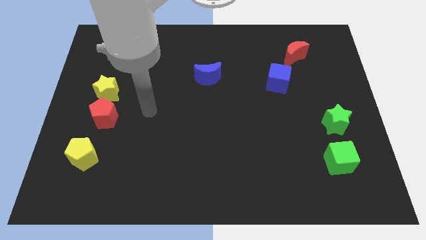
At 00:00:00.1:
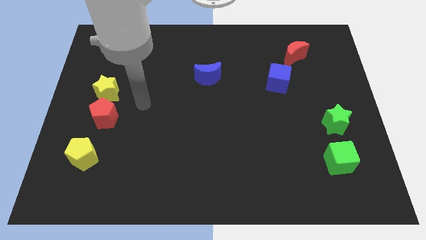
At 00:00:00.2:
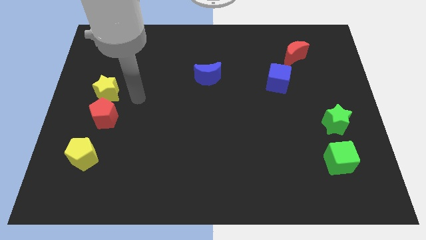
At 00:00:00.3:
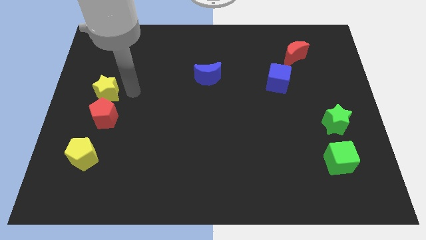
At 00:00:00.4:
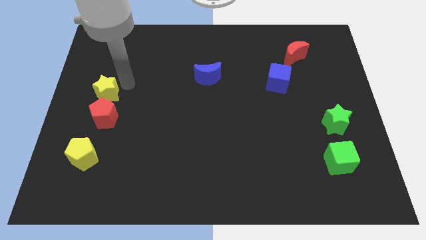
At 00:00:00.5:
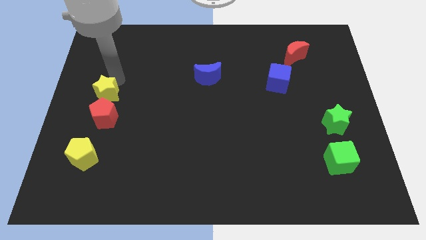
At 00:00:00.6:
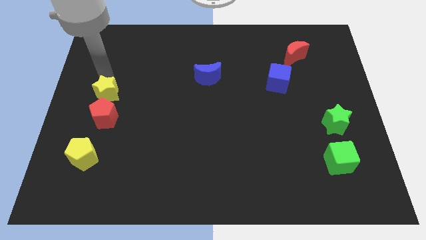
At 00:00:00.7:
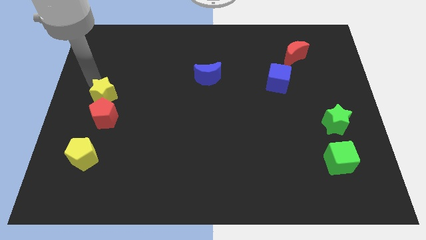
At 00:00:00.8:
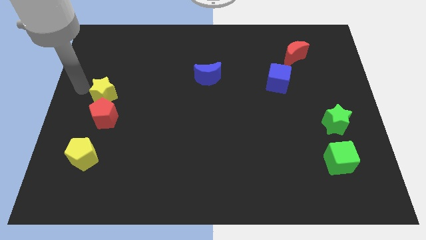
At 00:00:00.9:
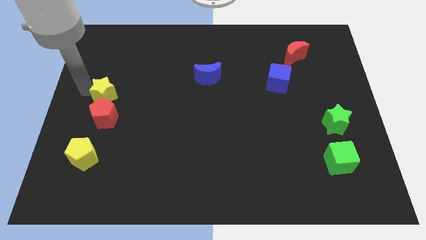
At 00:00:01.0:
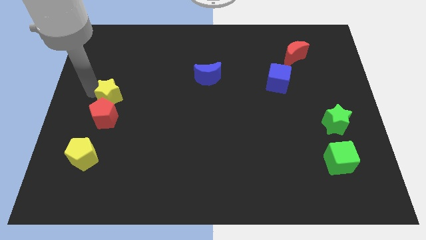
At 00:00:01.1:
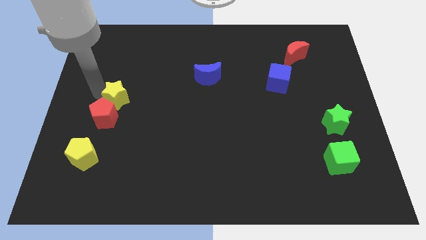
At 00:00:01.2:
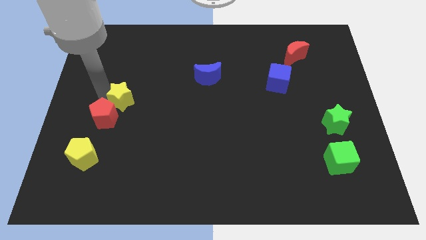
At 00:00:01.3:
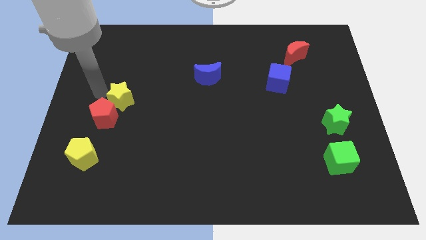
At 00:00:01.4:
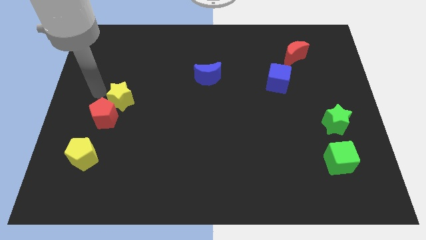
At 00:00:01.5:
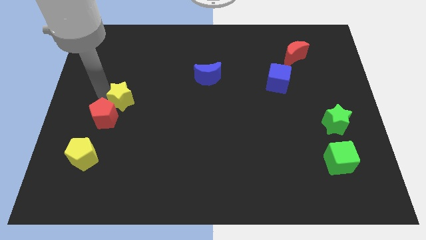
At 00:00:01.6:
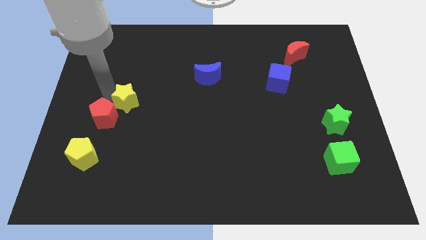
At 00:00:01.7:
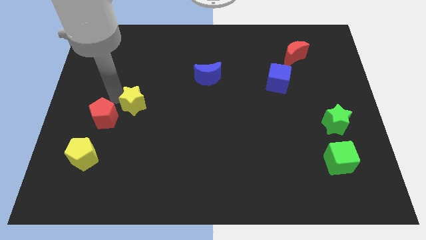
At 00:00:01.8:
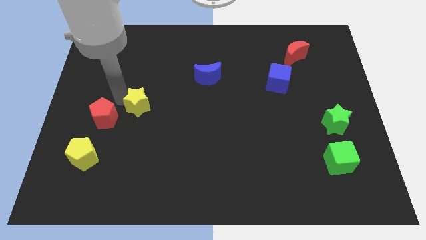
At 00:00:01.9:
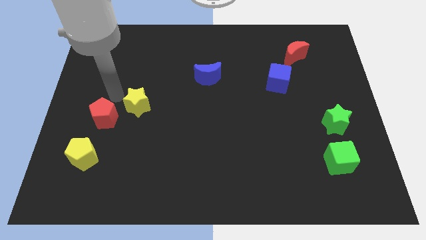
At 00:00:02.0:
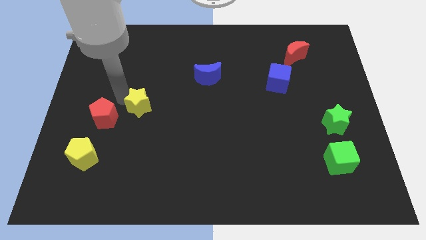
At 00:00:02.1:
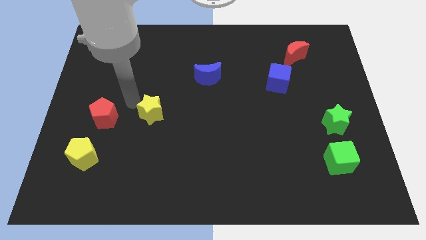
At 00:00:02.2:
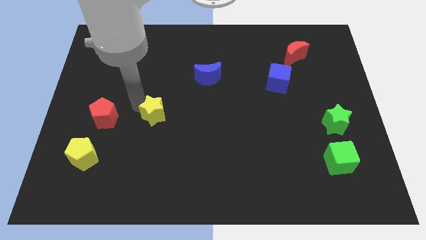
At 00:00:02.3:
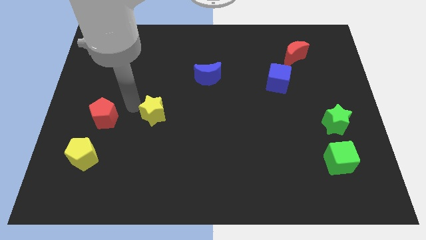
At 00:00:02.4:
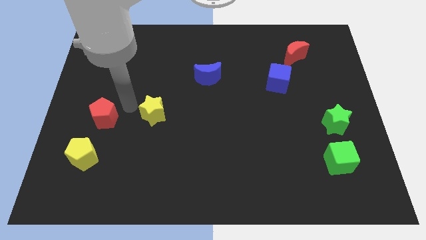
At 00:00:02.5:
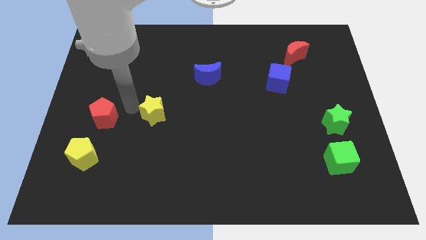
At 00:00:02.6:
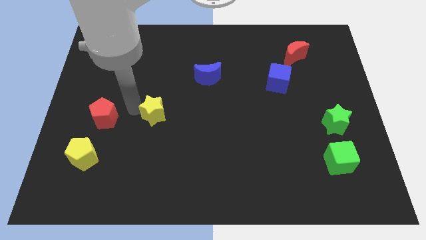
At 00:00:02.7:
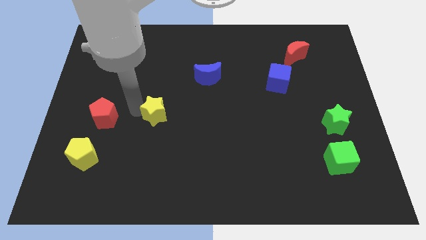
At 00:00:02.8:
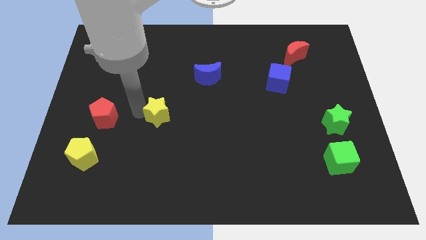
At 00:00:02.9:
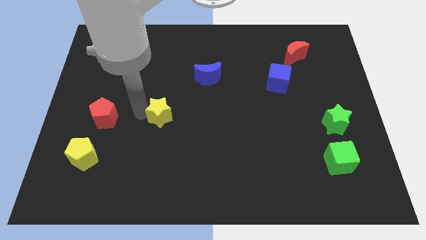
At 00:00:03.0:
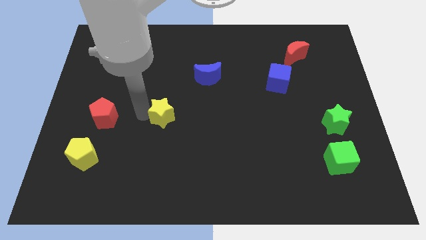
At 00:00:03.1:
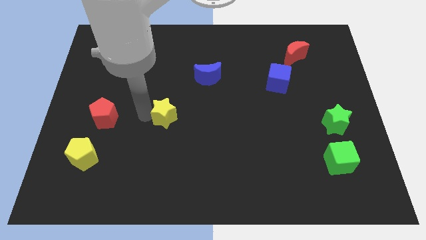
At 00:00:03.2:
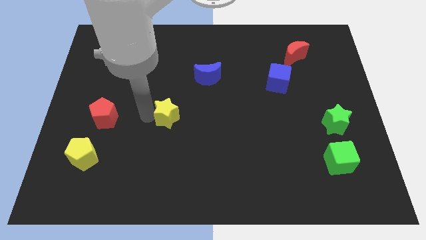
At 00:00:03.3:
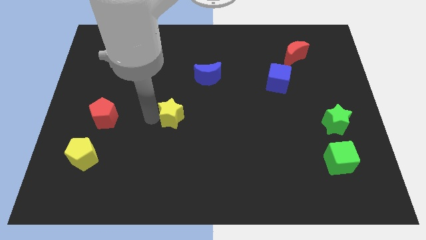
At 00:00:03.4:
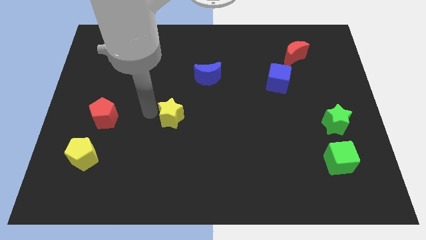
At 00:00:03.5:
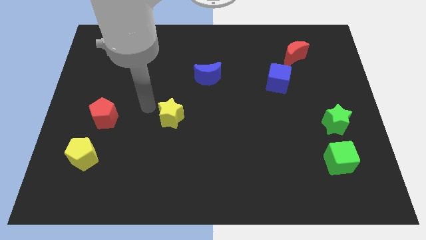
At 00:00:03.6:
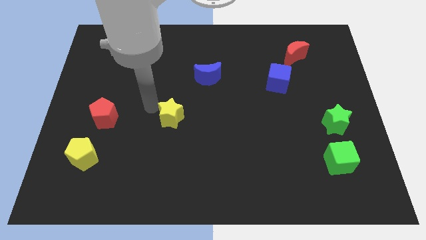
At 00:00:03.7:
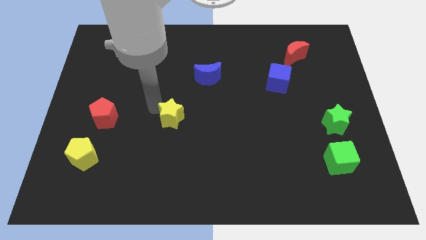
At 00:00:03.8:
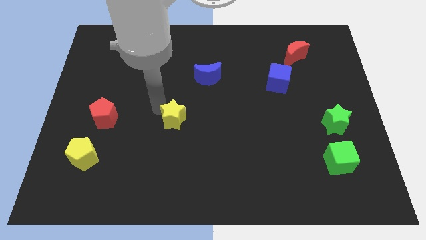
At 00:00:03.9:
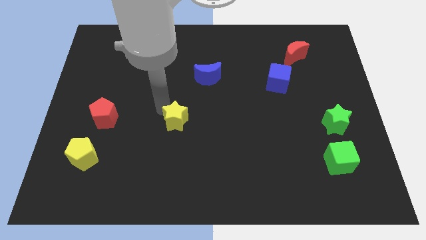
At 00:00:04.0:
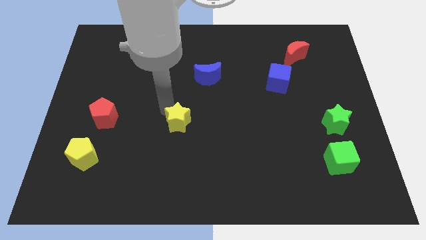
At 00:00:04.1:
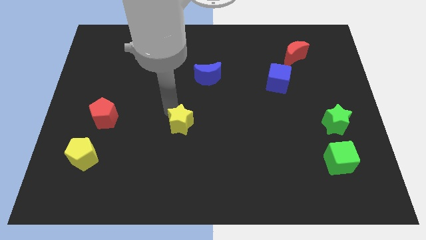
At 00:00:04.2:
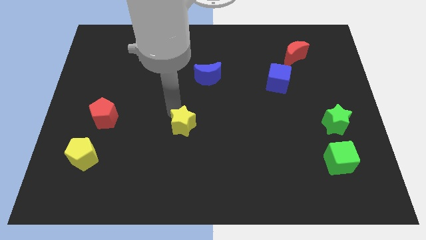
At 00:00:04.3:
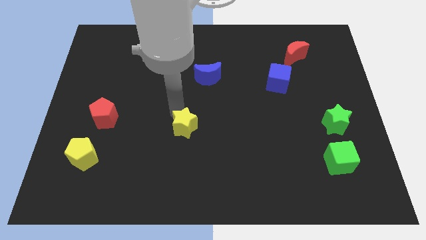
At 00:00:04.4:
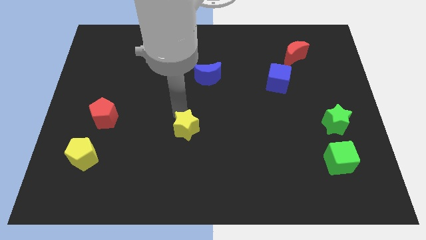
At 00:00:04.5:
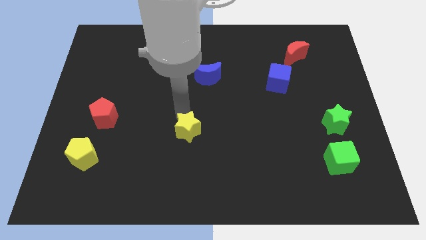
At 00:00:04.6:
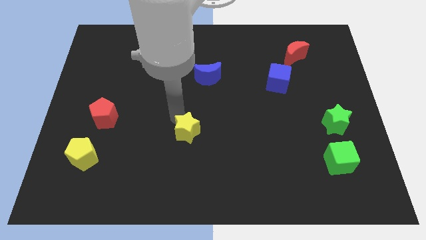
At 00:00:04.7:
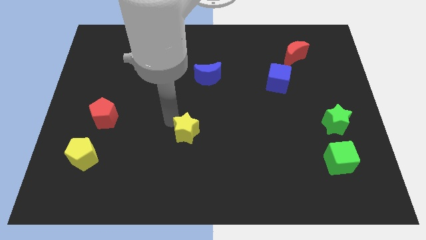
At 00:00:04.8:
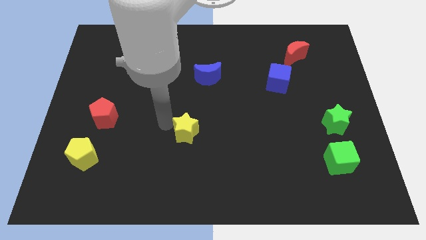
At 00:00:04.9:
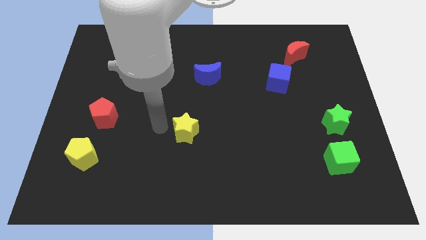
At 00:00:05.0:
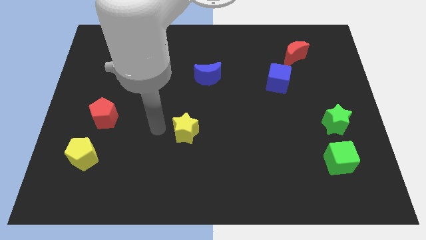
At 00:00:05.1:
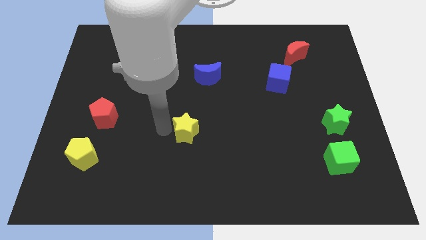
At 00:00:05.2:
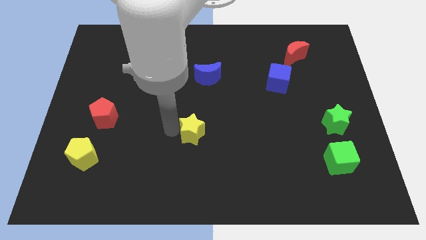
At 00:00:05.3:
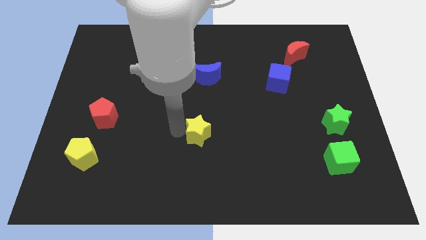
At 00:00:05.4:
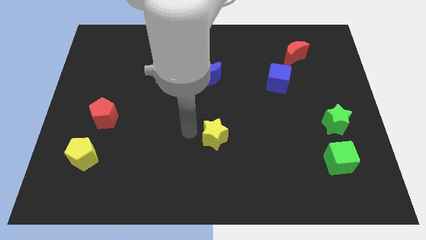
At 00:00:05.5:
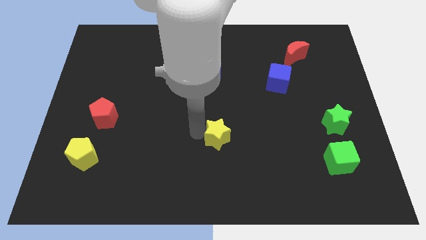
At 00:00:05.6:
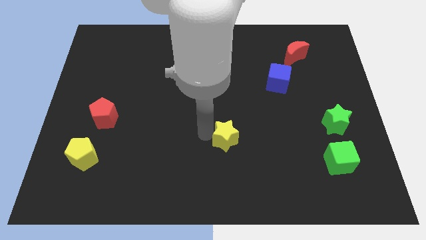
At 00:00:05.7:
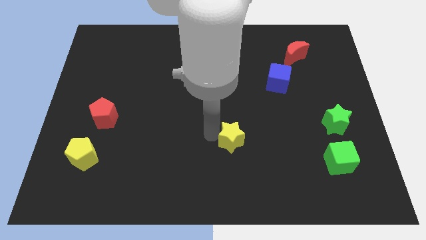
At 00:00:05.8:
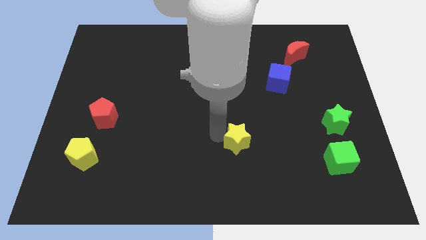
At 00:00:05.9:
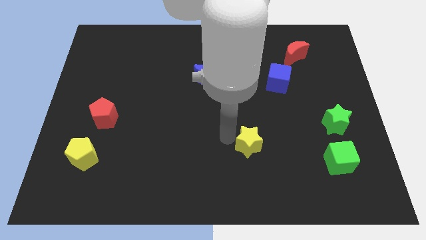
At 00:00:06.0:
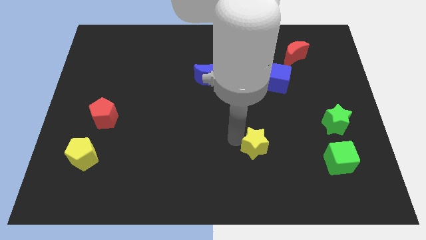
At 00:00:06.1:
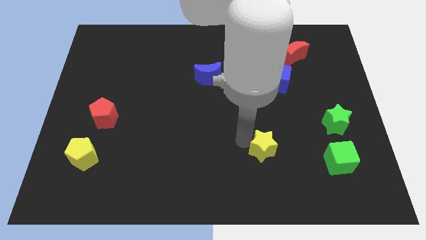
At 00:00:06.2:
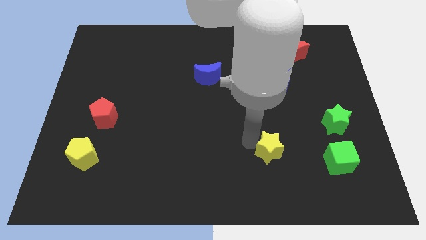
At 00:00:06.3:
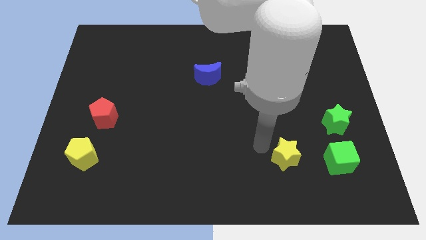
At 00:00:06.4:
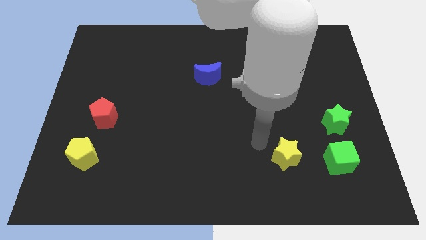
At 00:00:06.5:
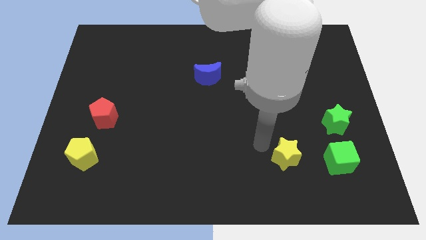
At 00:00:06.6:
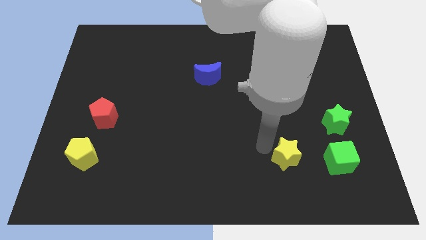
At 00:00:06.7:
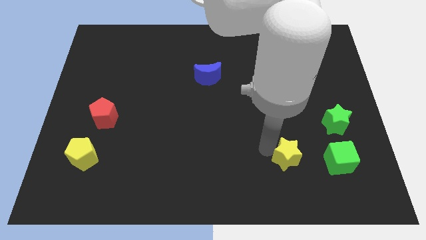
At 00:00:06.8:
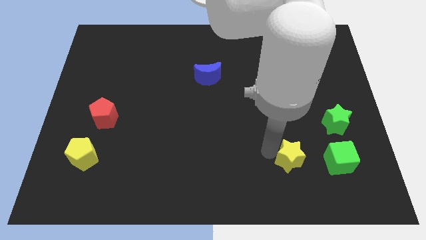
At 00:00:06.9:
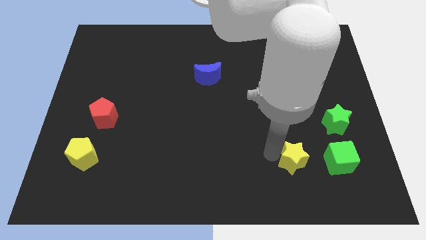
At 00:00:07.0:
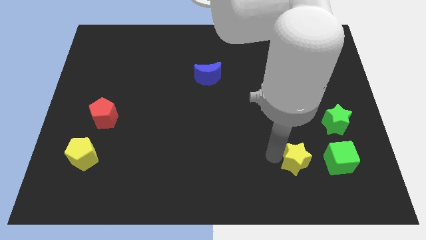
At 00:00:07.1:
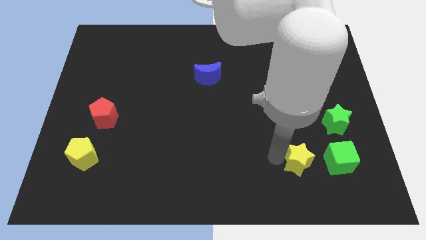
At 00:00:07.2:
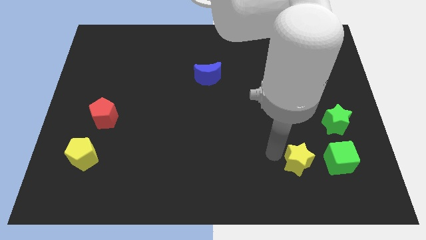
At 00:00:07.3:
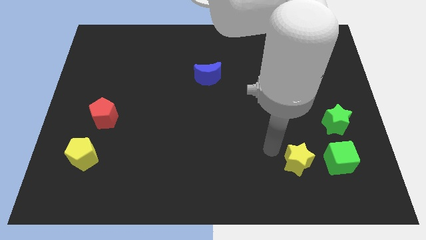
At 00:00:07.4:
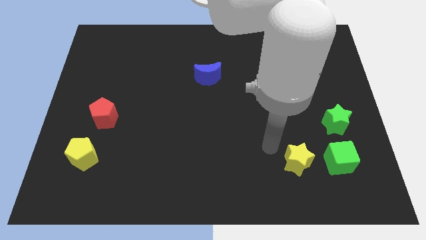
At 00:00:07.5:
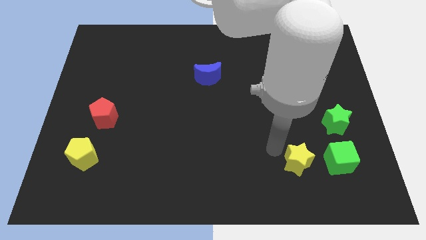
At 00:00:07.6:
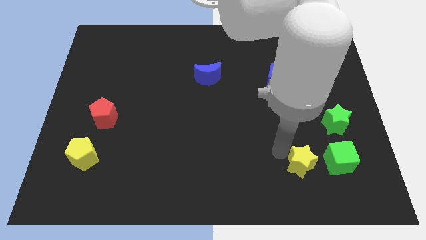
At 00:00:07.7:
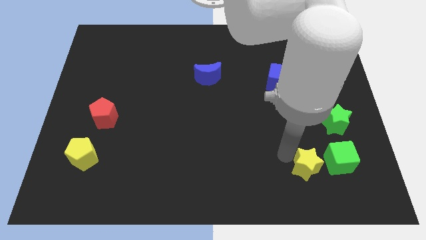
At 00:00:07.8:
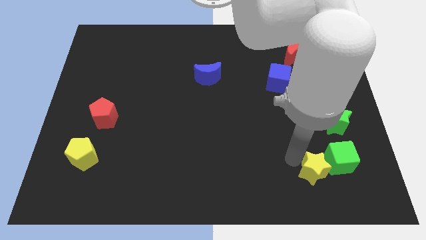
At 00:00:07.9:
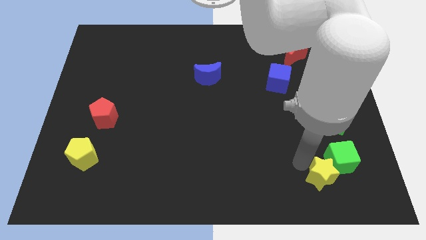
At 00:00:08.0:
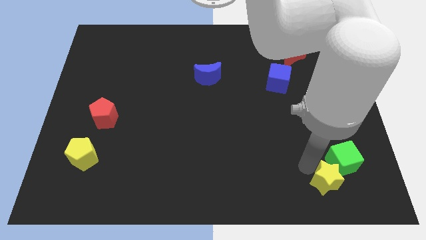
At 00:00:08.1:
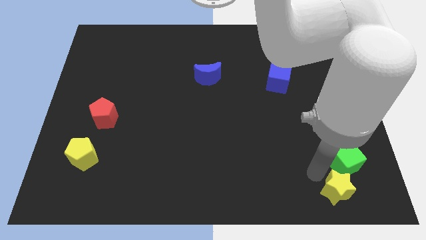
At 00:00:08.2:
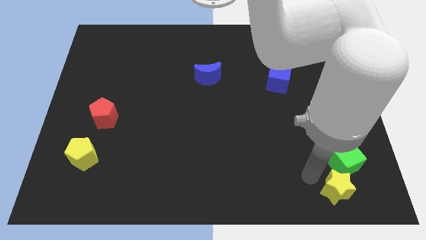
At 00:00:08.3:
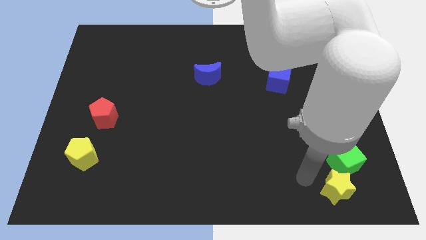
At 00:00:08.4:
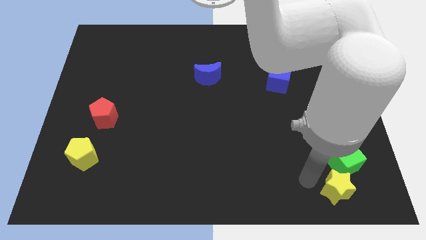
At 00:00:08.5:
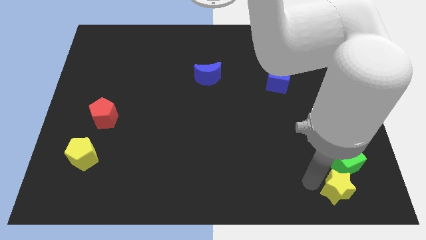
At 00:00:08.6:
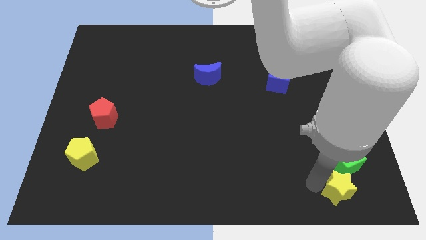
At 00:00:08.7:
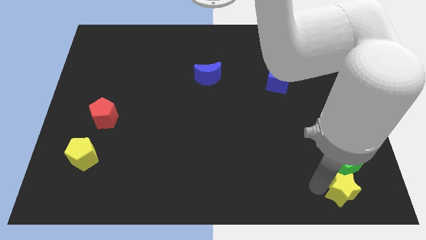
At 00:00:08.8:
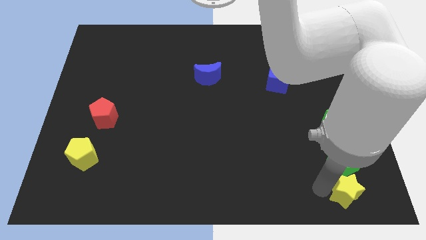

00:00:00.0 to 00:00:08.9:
move the yellow star to the bottom right
